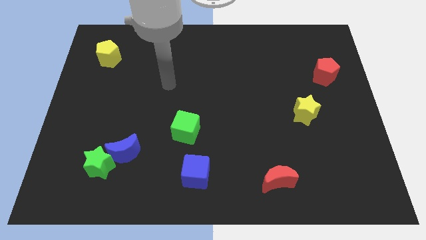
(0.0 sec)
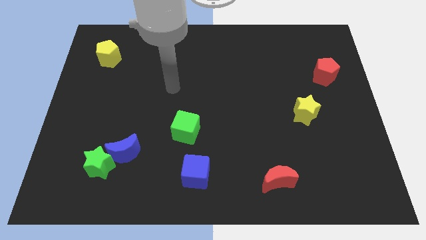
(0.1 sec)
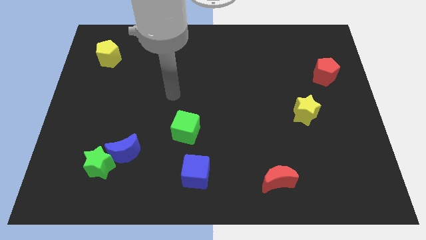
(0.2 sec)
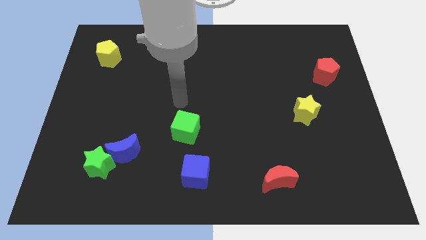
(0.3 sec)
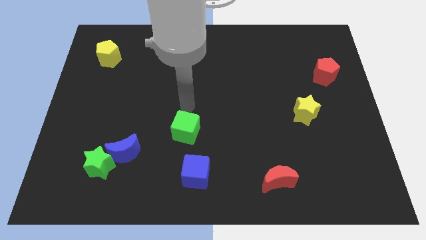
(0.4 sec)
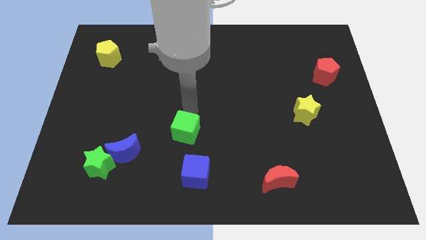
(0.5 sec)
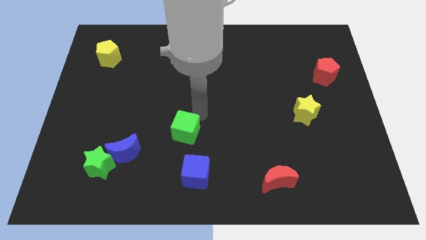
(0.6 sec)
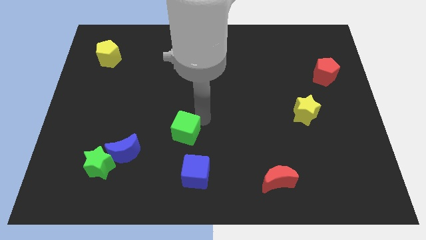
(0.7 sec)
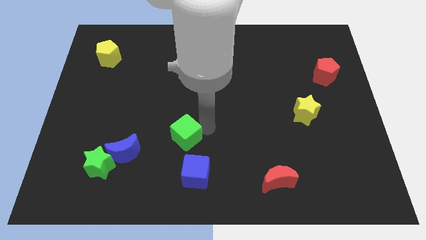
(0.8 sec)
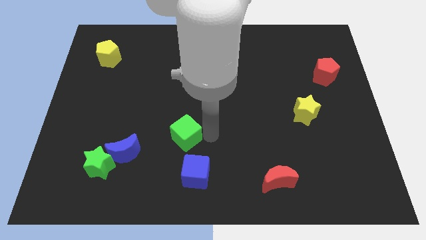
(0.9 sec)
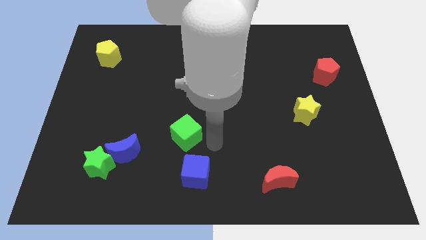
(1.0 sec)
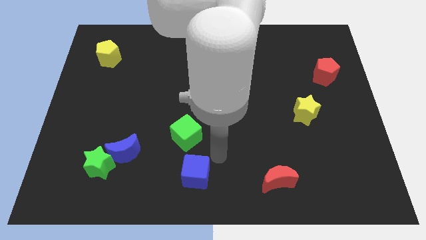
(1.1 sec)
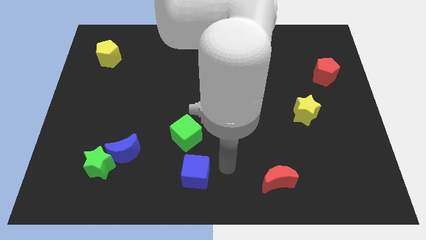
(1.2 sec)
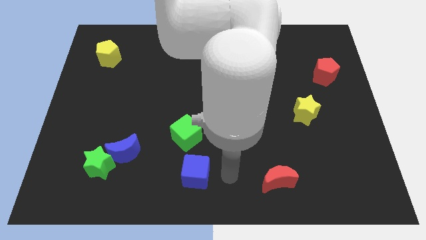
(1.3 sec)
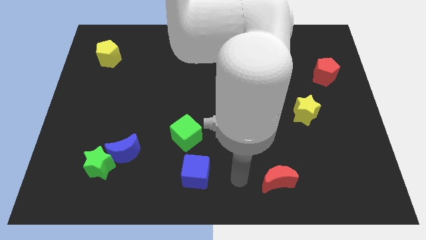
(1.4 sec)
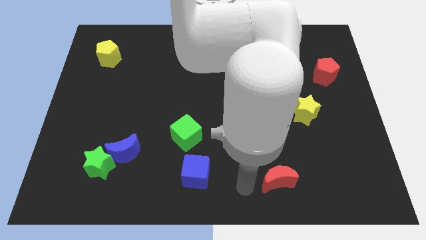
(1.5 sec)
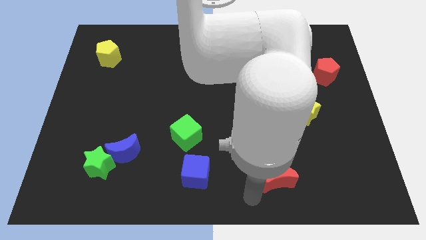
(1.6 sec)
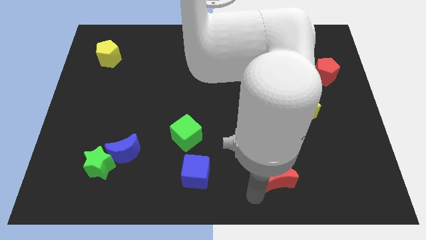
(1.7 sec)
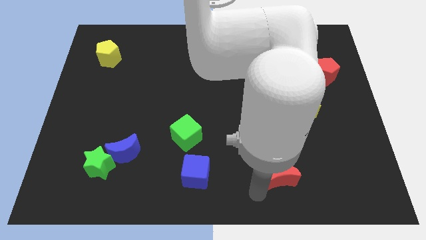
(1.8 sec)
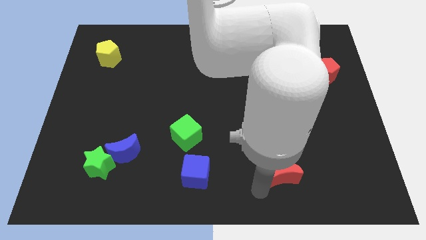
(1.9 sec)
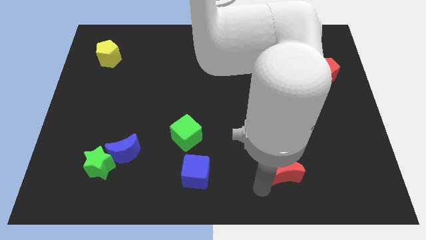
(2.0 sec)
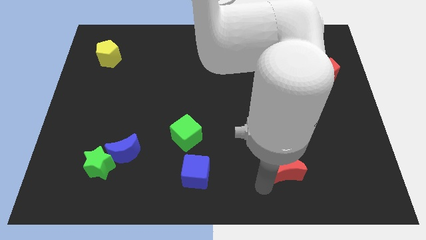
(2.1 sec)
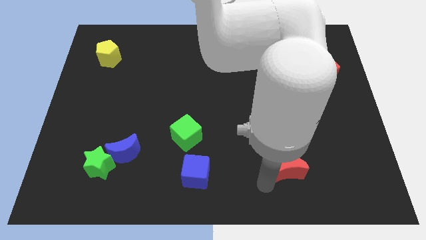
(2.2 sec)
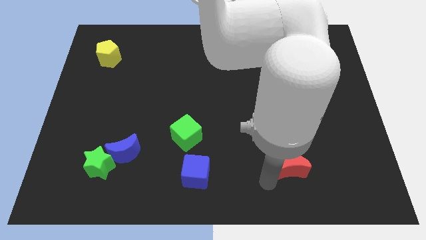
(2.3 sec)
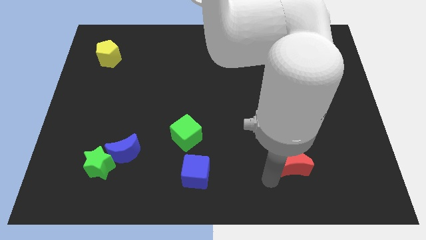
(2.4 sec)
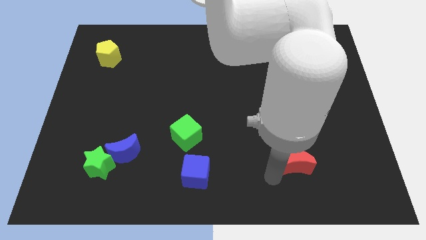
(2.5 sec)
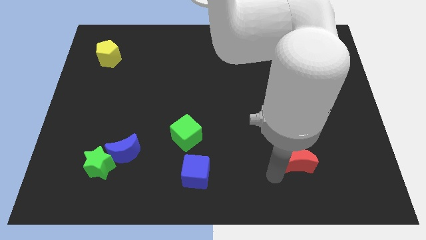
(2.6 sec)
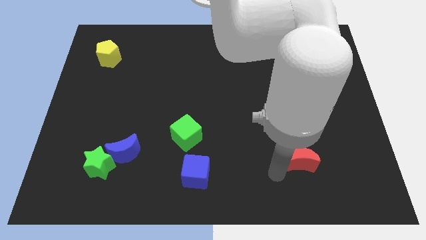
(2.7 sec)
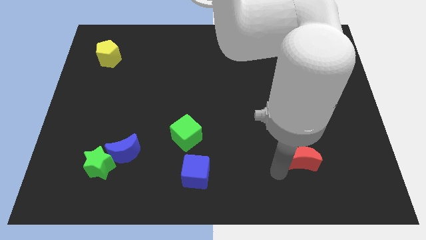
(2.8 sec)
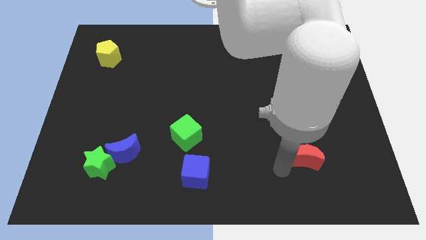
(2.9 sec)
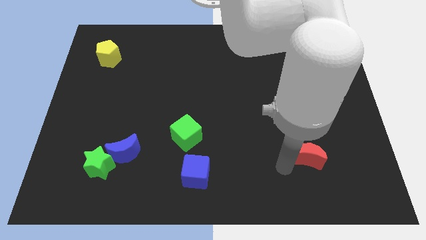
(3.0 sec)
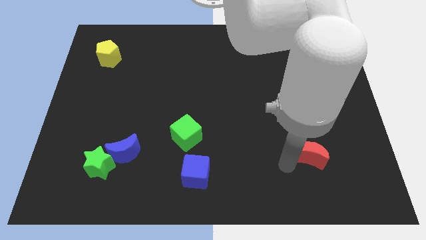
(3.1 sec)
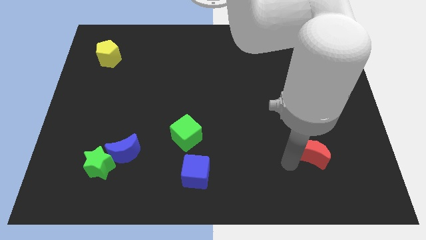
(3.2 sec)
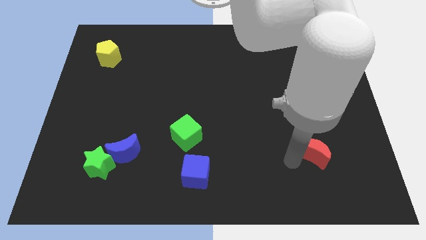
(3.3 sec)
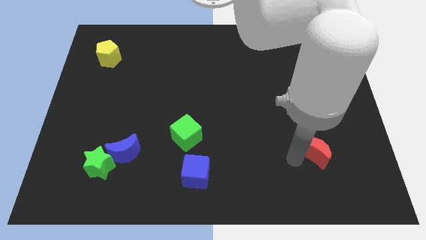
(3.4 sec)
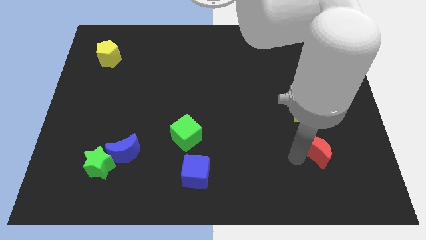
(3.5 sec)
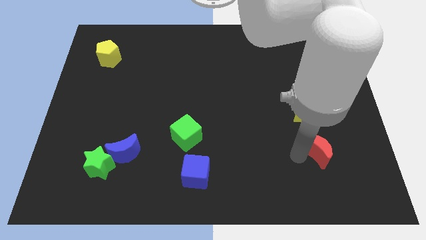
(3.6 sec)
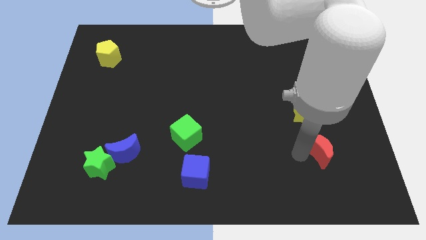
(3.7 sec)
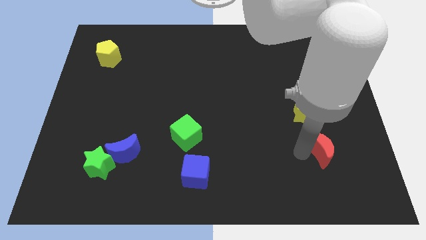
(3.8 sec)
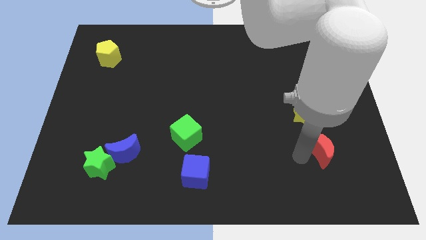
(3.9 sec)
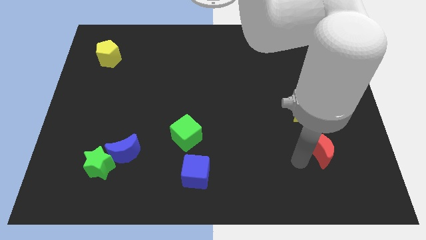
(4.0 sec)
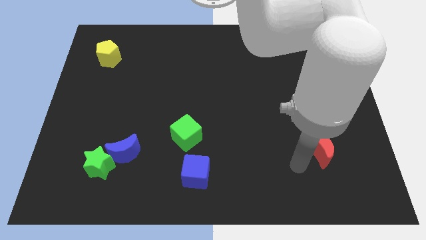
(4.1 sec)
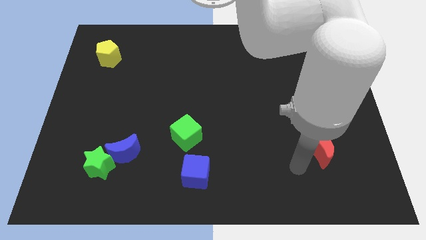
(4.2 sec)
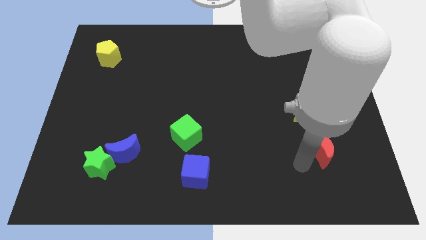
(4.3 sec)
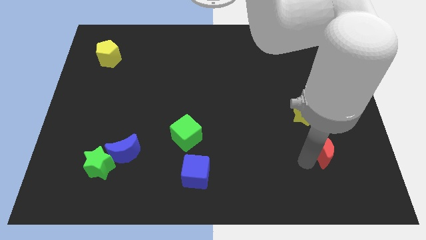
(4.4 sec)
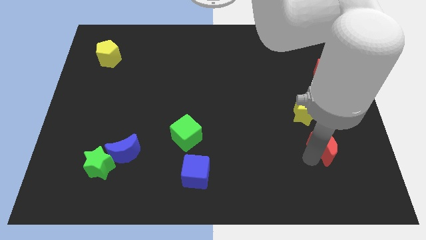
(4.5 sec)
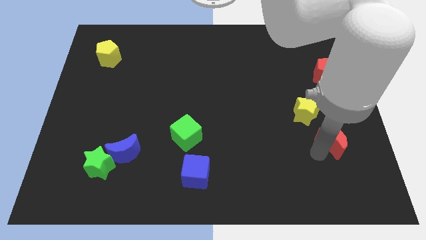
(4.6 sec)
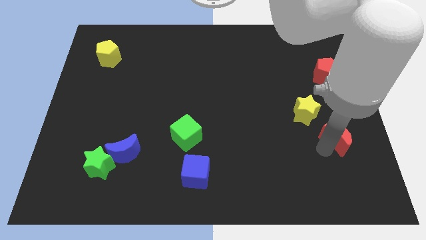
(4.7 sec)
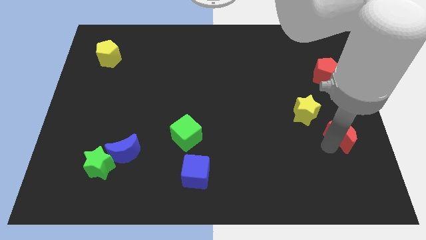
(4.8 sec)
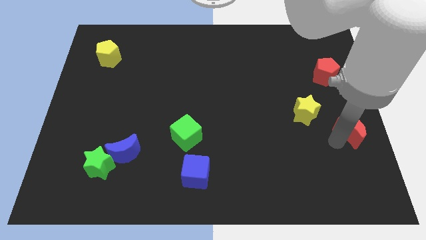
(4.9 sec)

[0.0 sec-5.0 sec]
put the red moon to the center right

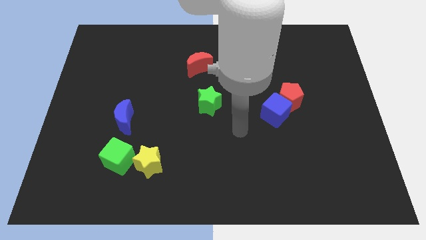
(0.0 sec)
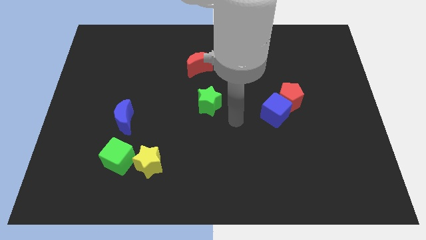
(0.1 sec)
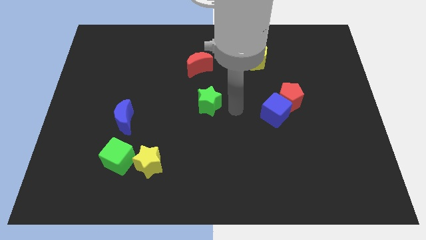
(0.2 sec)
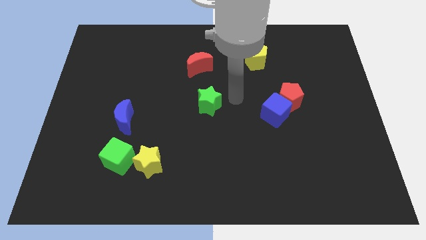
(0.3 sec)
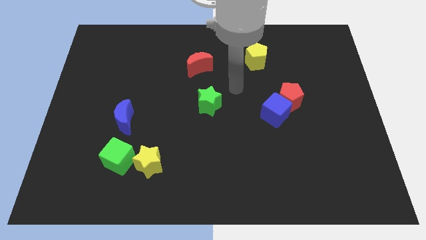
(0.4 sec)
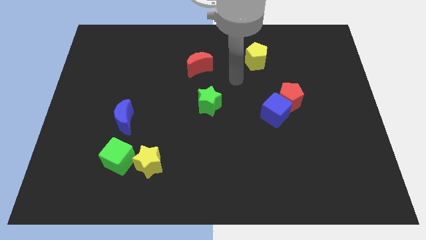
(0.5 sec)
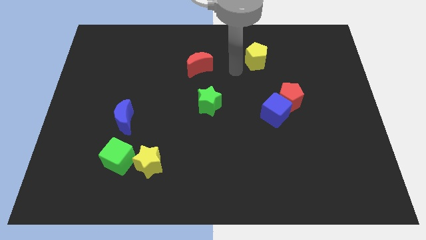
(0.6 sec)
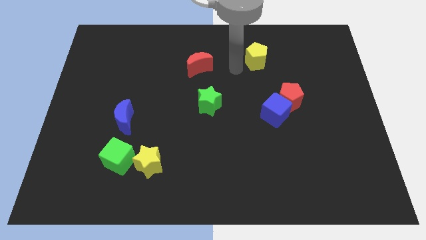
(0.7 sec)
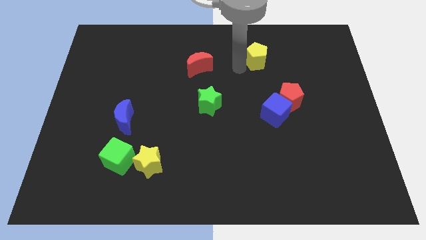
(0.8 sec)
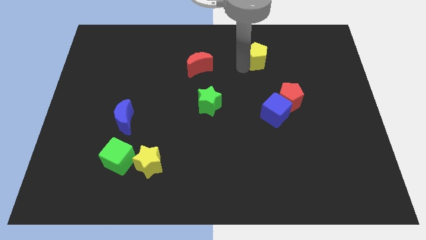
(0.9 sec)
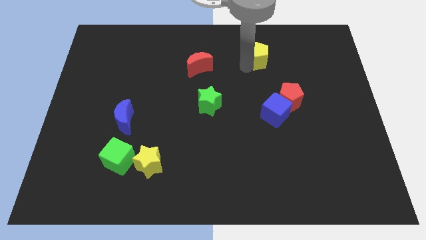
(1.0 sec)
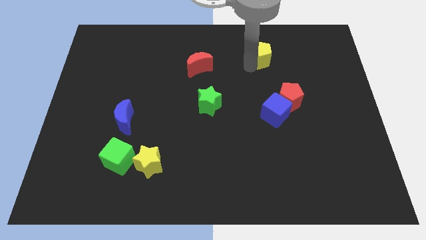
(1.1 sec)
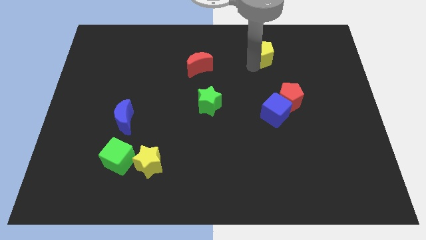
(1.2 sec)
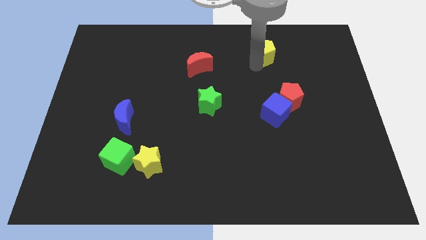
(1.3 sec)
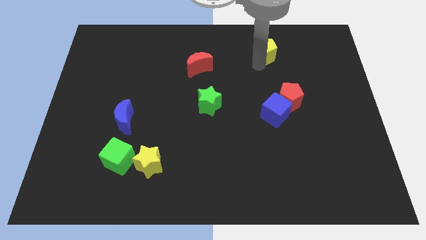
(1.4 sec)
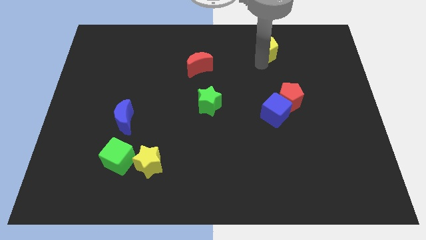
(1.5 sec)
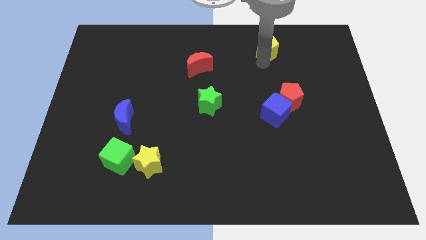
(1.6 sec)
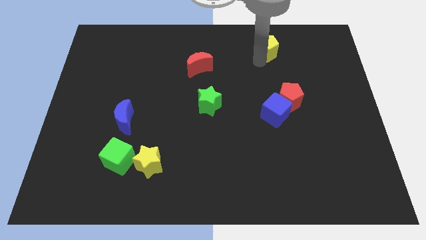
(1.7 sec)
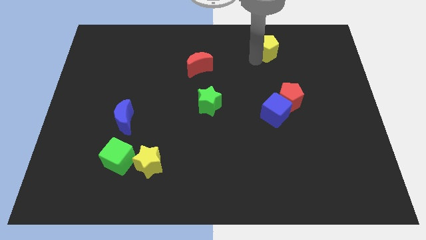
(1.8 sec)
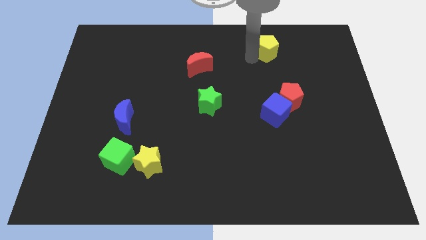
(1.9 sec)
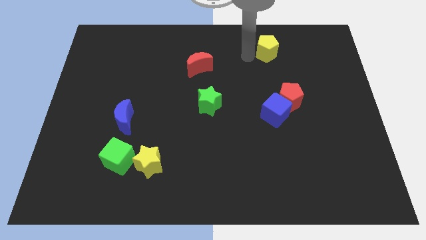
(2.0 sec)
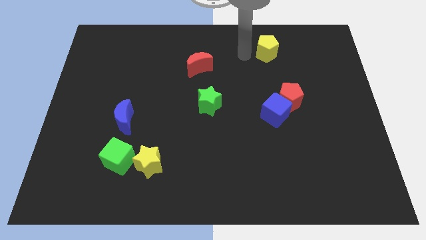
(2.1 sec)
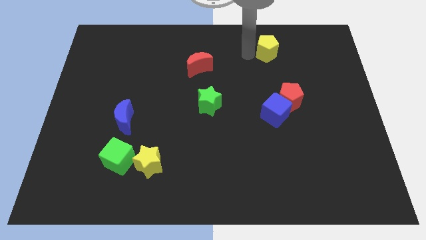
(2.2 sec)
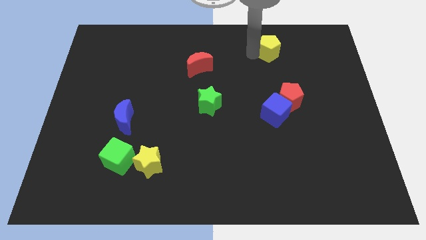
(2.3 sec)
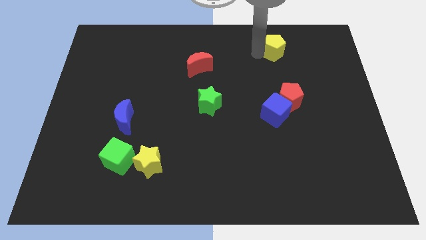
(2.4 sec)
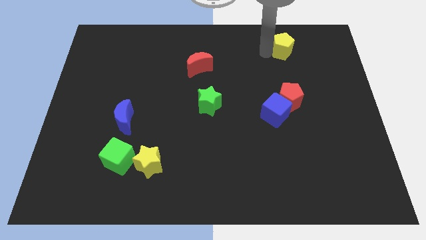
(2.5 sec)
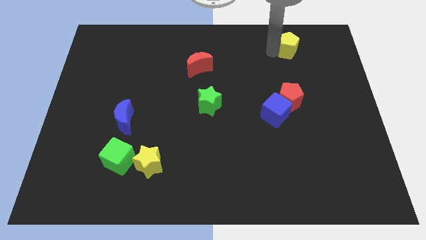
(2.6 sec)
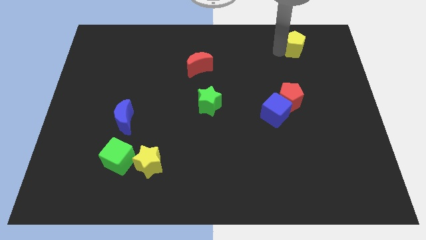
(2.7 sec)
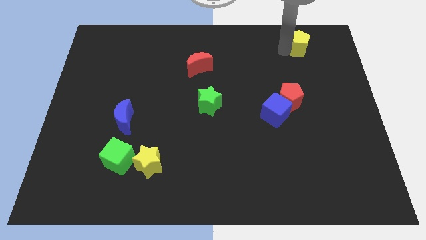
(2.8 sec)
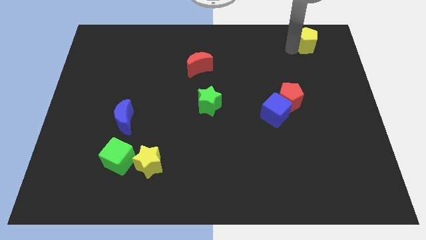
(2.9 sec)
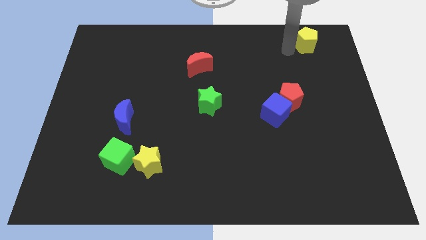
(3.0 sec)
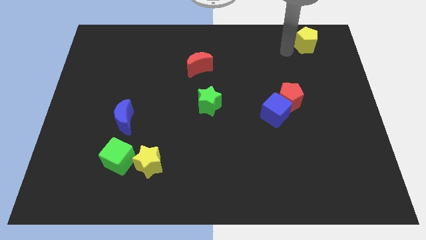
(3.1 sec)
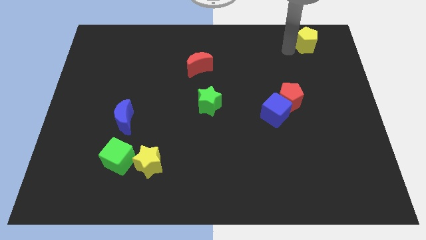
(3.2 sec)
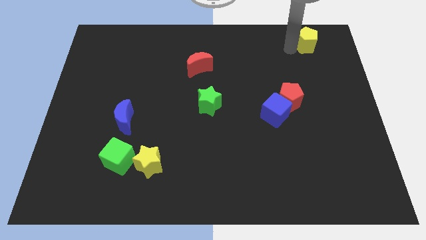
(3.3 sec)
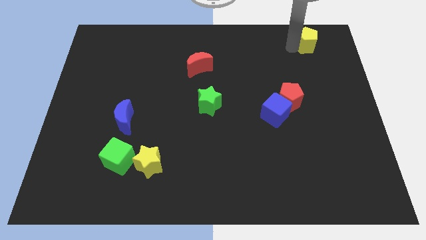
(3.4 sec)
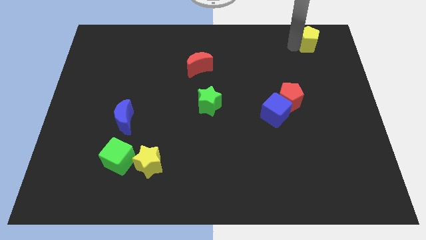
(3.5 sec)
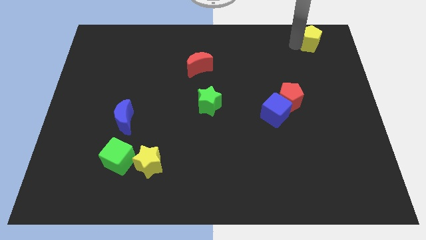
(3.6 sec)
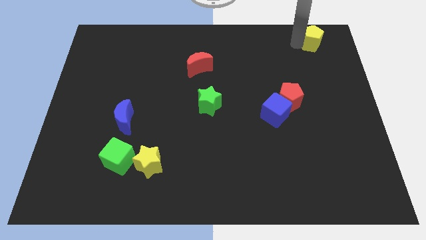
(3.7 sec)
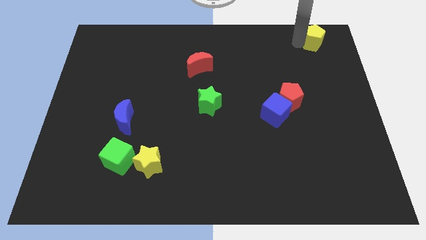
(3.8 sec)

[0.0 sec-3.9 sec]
push the yellow pentagon to the upper right corner
